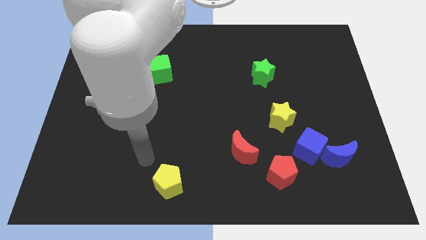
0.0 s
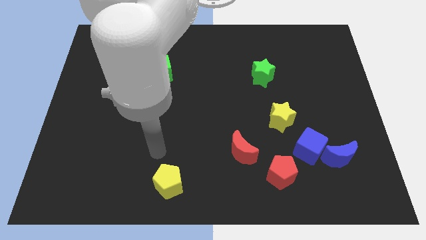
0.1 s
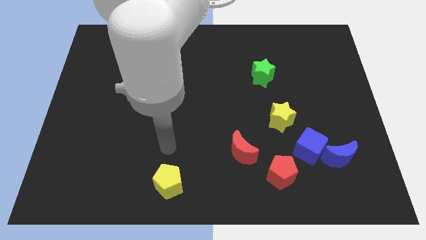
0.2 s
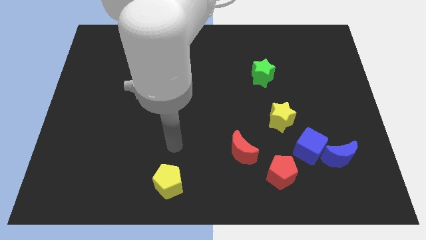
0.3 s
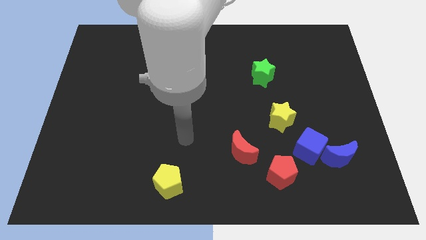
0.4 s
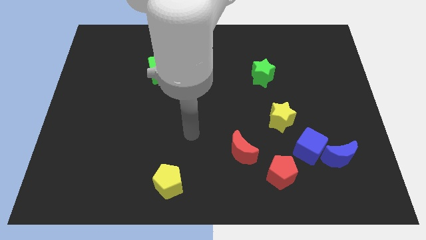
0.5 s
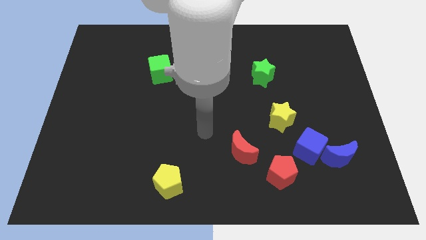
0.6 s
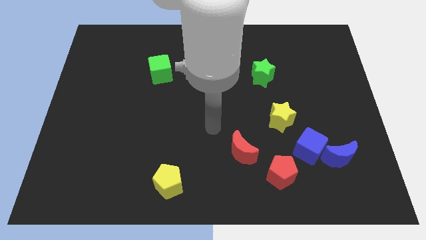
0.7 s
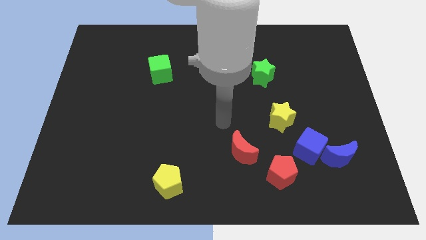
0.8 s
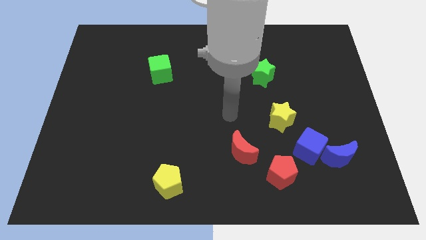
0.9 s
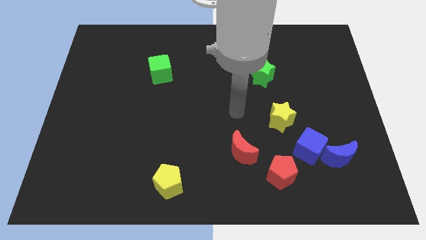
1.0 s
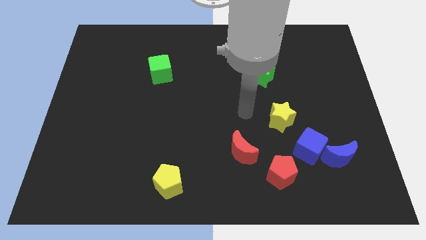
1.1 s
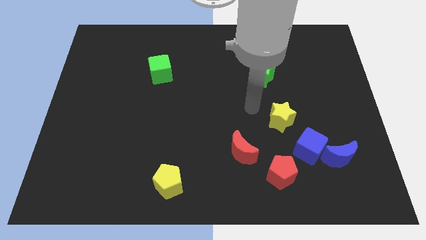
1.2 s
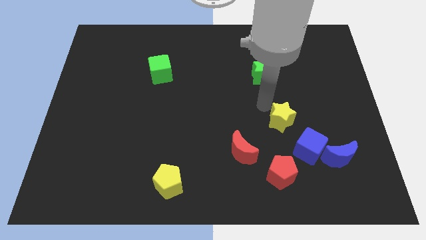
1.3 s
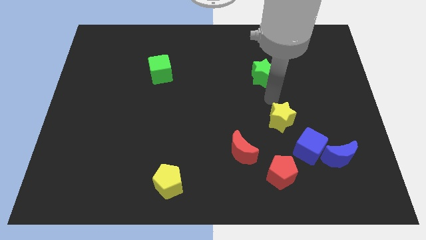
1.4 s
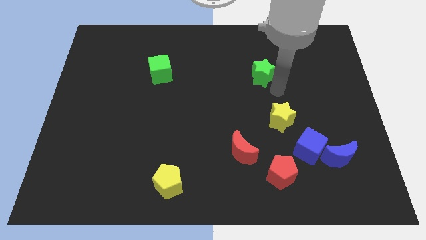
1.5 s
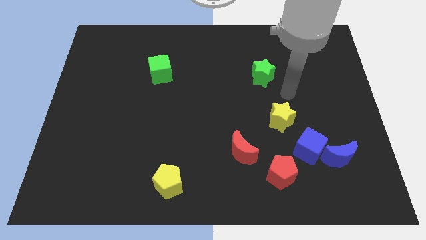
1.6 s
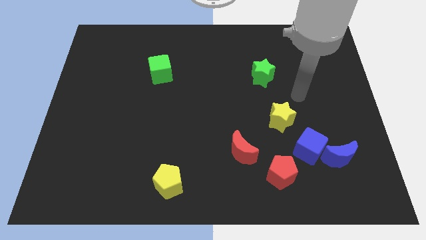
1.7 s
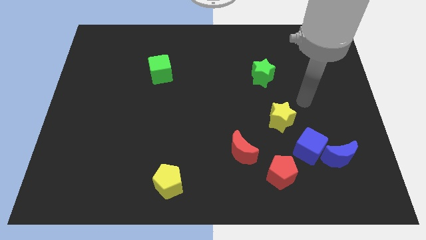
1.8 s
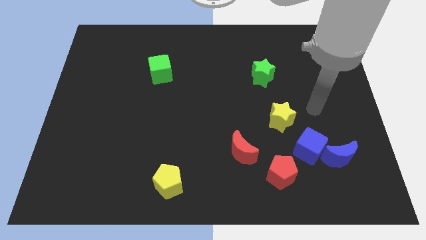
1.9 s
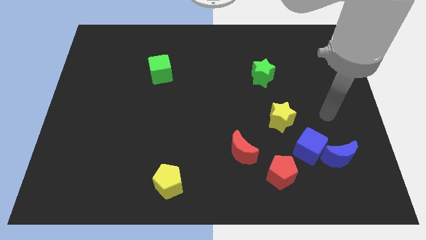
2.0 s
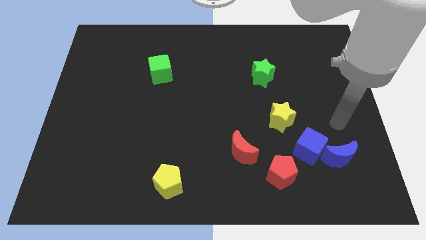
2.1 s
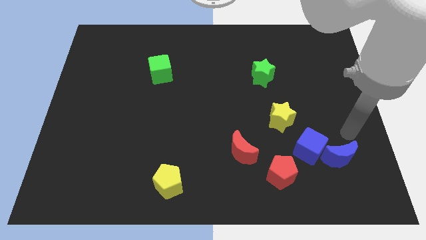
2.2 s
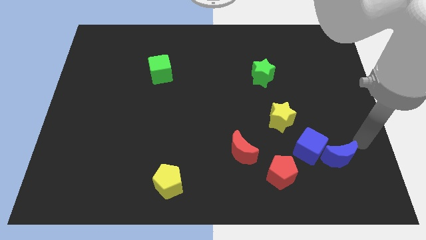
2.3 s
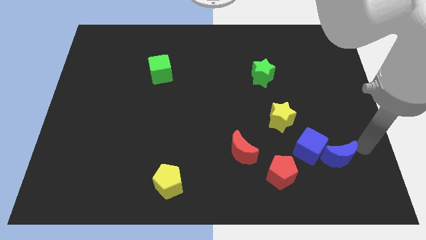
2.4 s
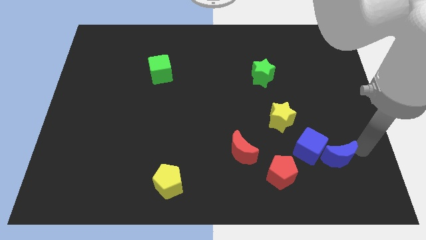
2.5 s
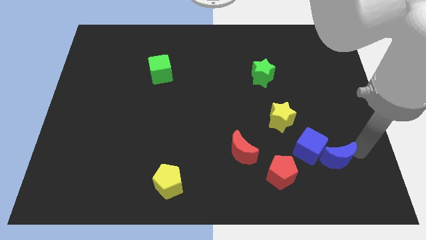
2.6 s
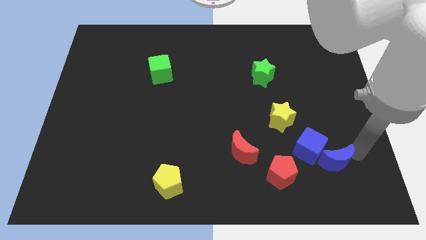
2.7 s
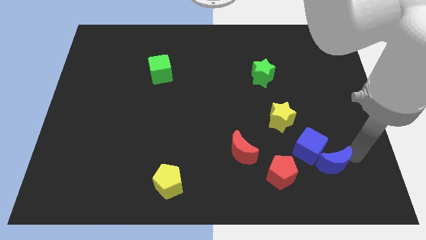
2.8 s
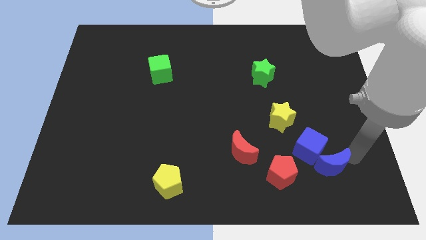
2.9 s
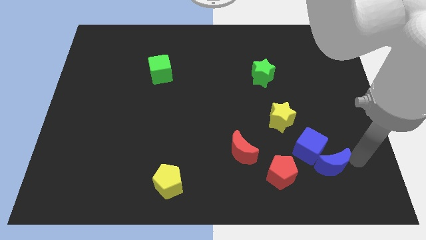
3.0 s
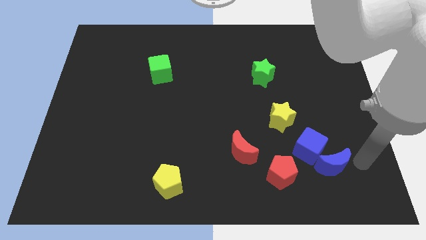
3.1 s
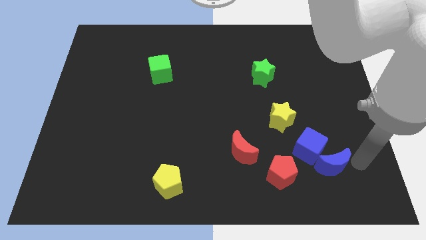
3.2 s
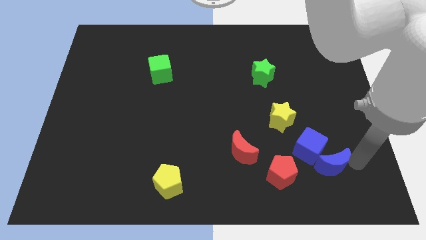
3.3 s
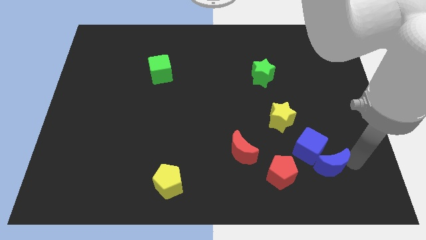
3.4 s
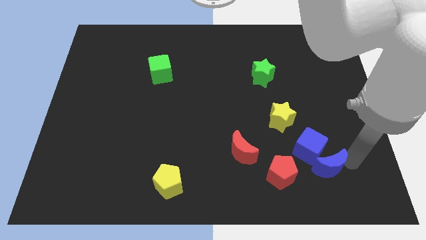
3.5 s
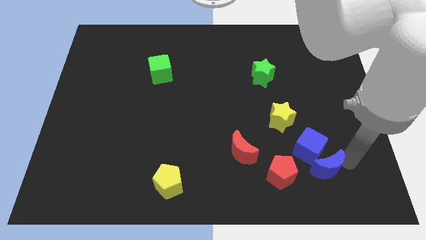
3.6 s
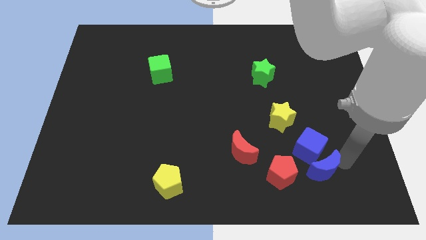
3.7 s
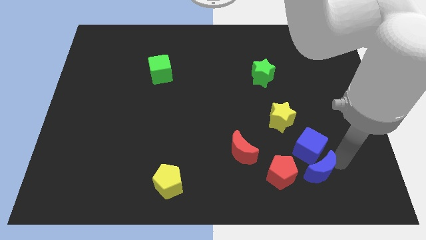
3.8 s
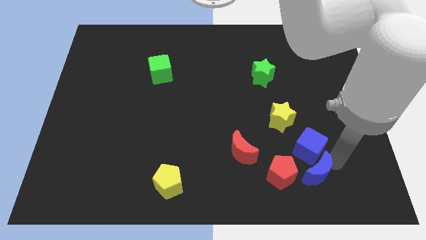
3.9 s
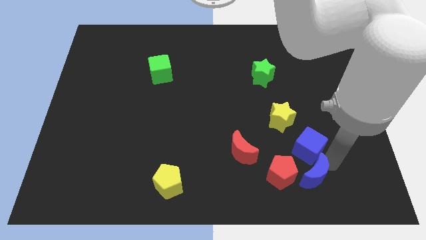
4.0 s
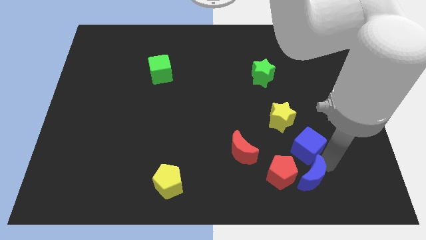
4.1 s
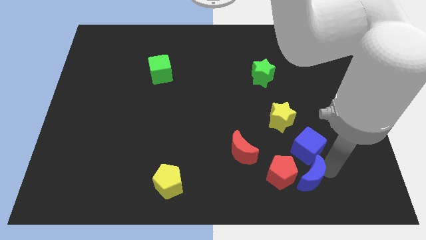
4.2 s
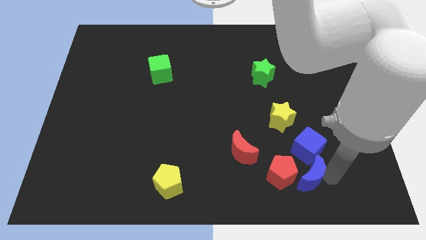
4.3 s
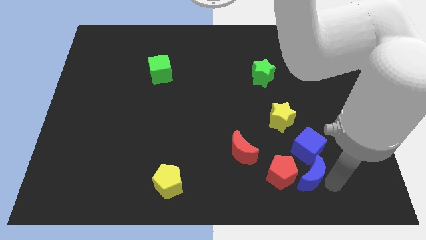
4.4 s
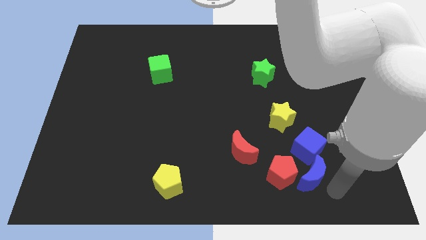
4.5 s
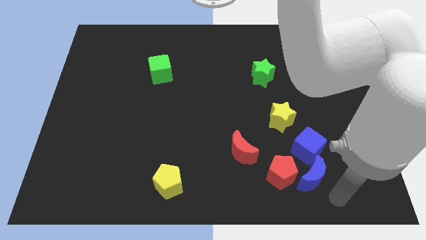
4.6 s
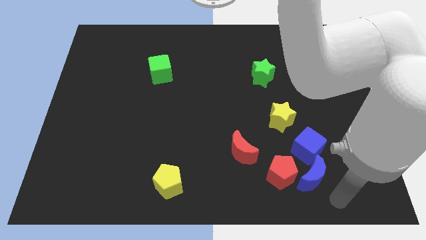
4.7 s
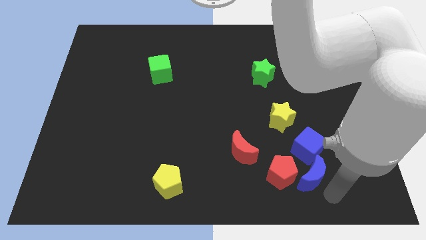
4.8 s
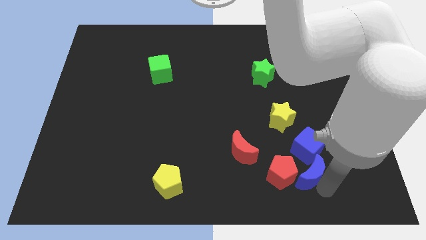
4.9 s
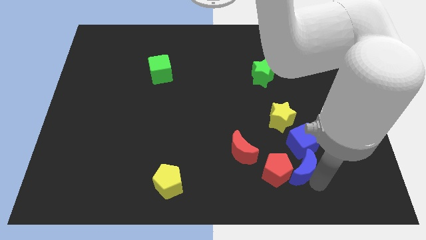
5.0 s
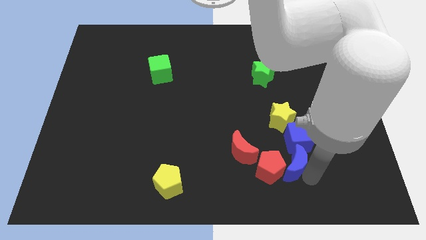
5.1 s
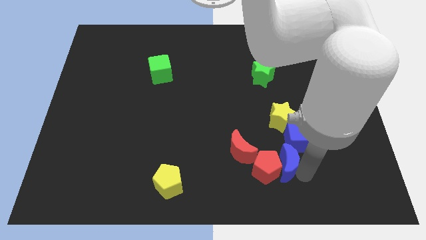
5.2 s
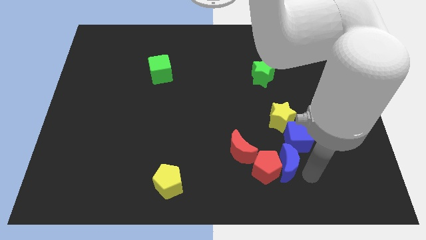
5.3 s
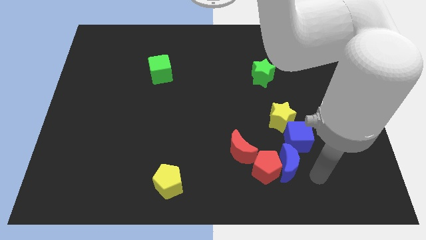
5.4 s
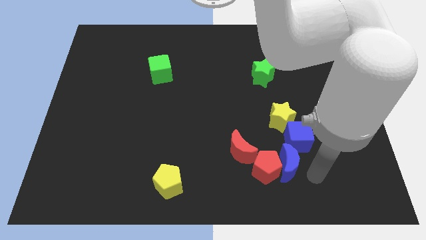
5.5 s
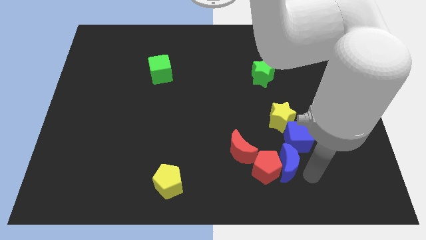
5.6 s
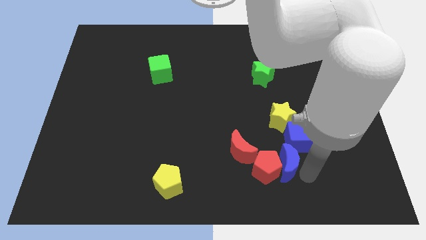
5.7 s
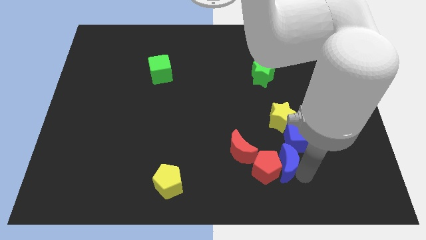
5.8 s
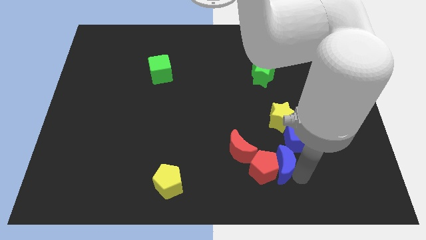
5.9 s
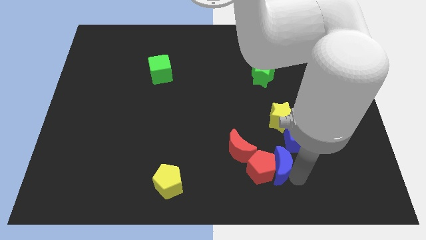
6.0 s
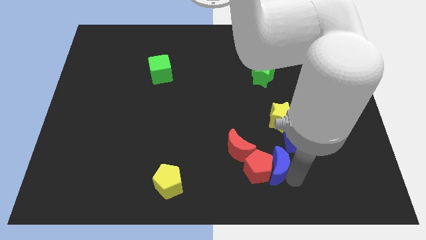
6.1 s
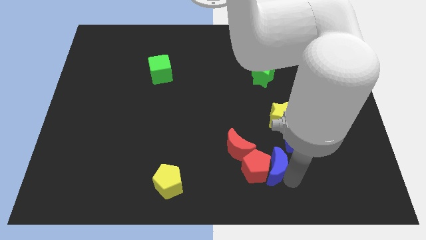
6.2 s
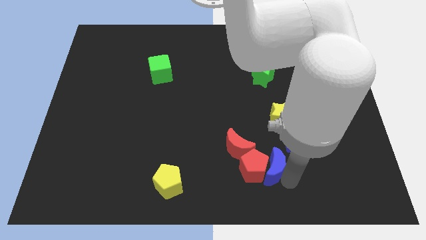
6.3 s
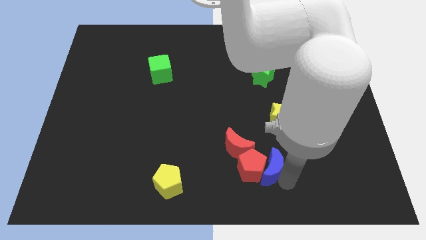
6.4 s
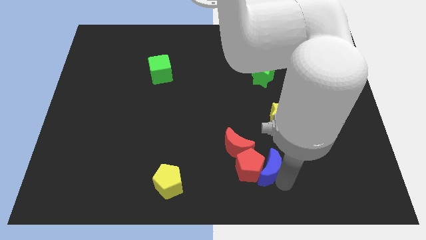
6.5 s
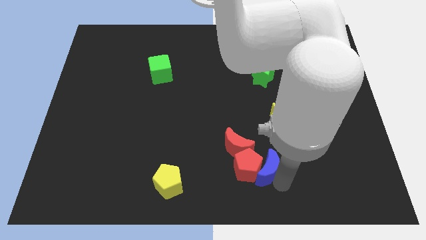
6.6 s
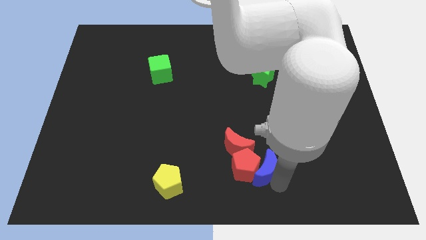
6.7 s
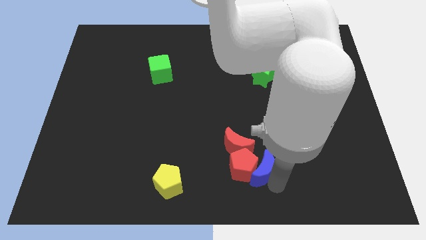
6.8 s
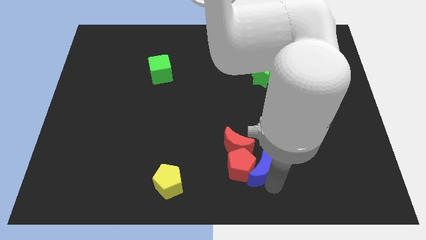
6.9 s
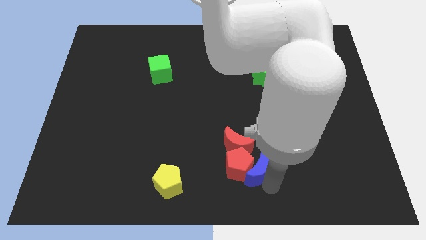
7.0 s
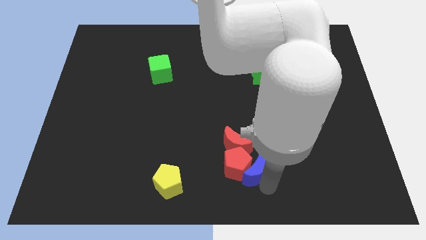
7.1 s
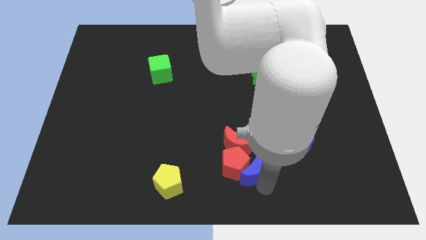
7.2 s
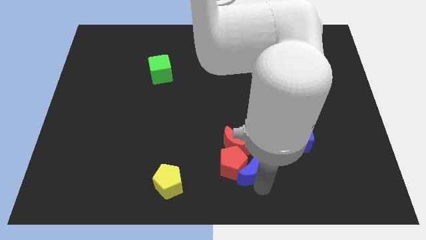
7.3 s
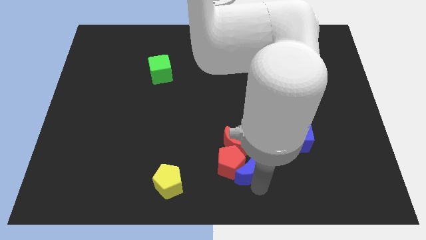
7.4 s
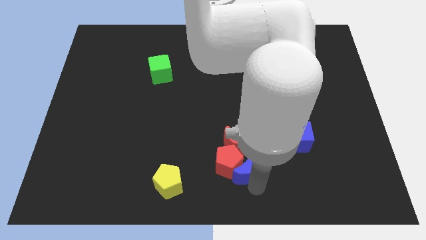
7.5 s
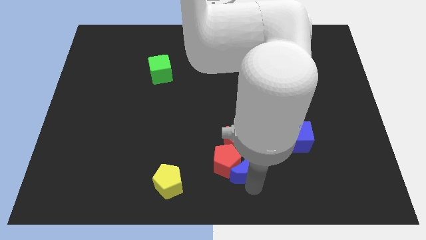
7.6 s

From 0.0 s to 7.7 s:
slide the blue moon to the left

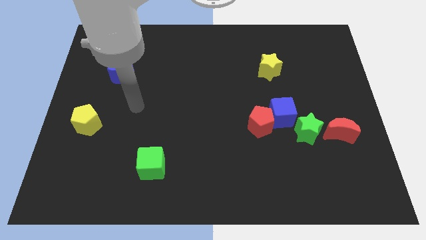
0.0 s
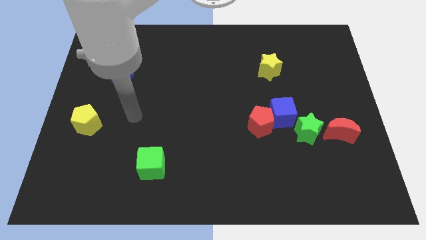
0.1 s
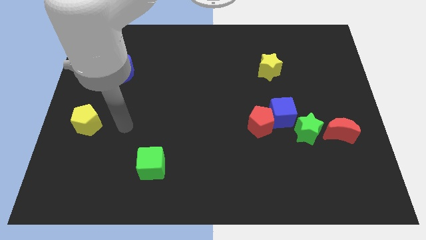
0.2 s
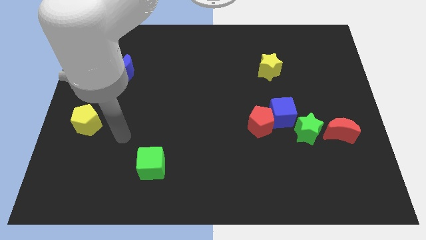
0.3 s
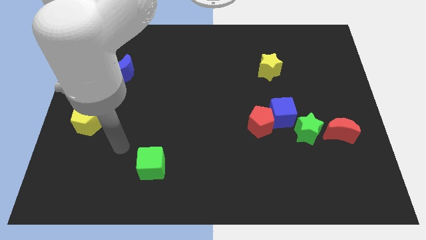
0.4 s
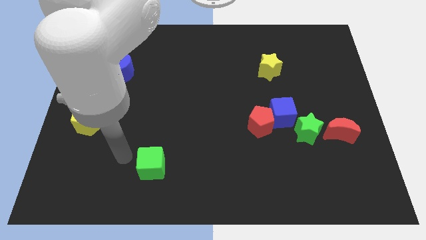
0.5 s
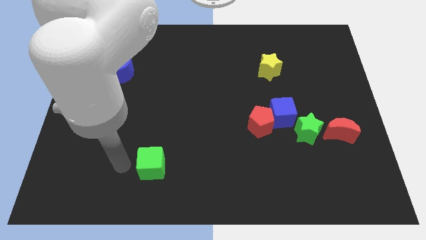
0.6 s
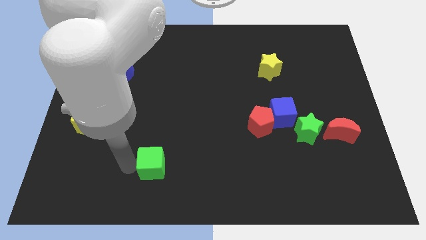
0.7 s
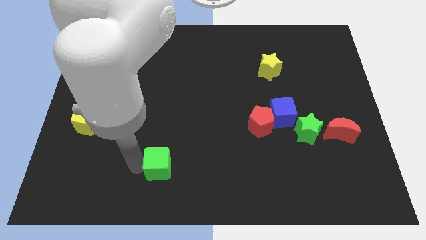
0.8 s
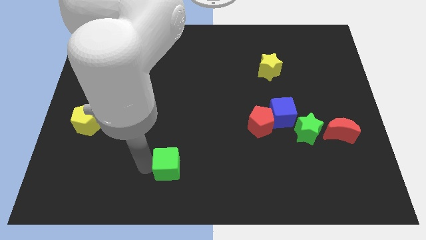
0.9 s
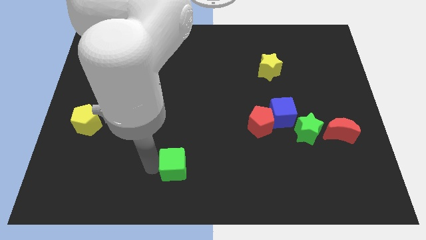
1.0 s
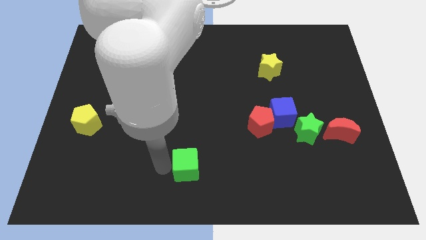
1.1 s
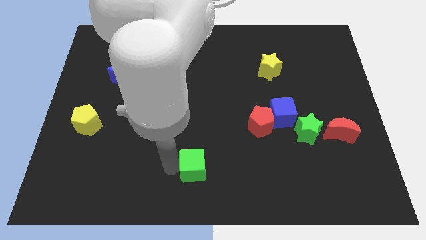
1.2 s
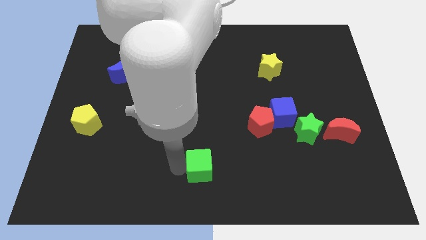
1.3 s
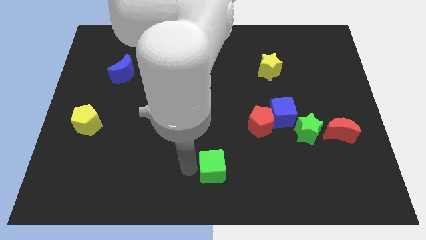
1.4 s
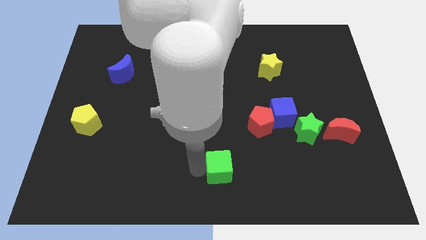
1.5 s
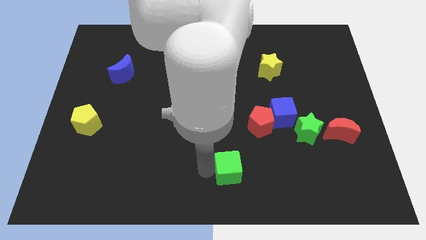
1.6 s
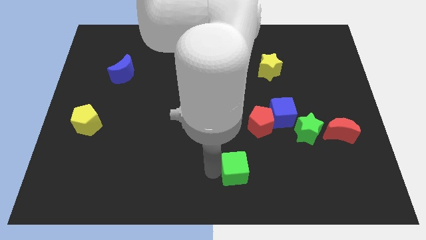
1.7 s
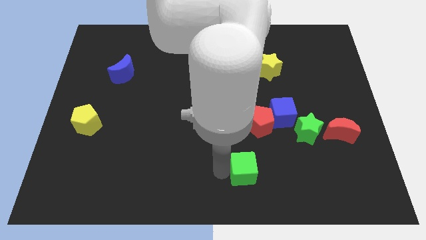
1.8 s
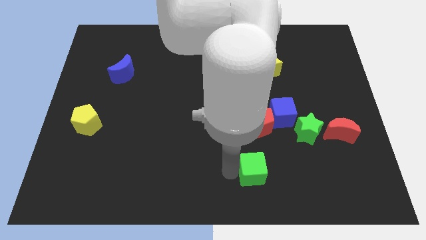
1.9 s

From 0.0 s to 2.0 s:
move the green cube right
